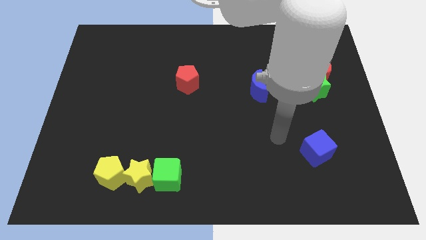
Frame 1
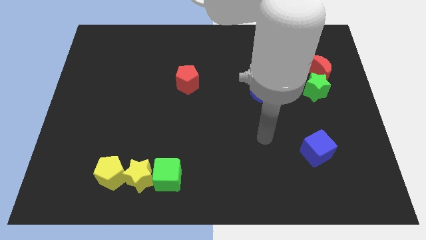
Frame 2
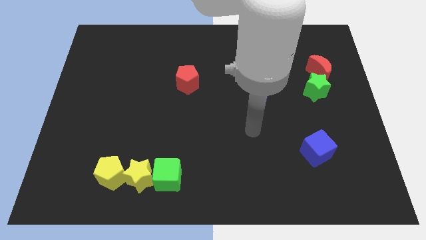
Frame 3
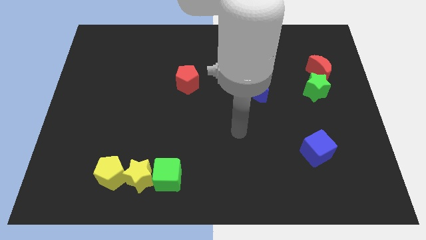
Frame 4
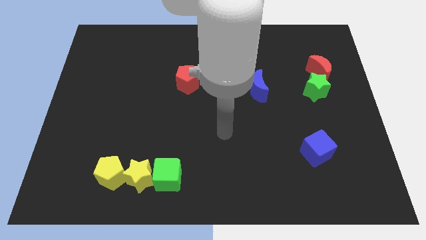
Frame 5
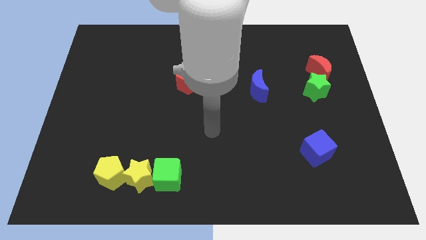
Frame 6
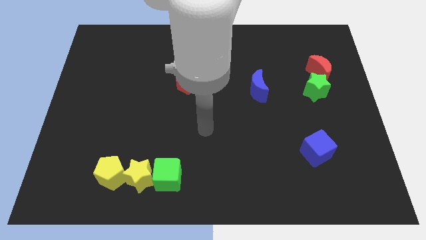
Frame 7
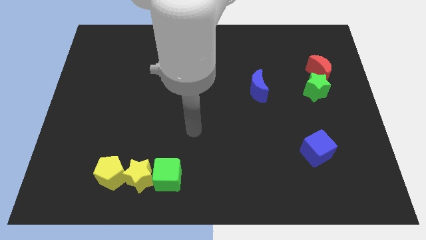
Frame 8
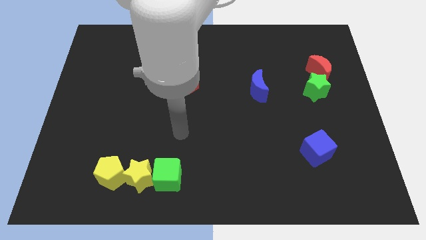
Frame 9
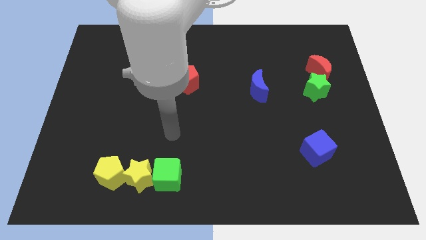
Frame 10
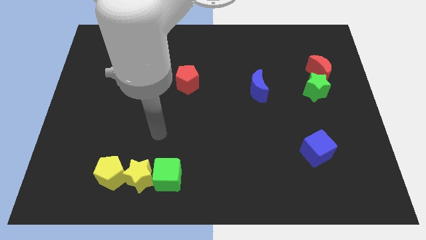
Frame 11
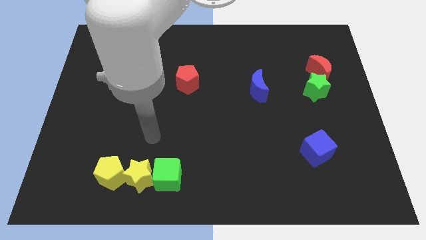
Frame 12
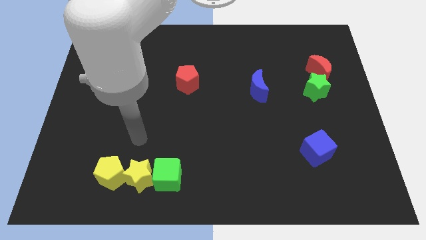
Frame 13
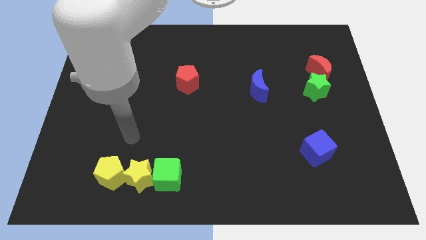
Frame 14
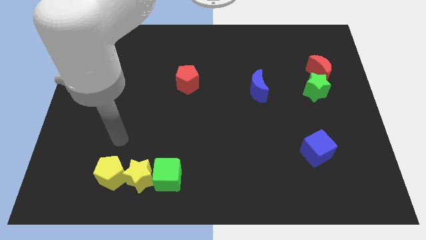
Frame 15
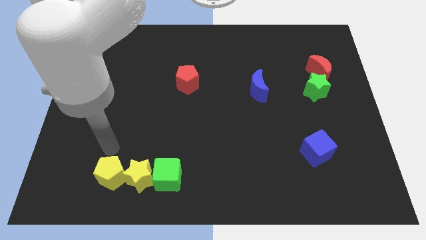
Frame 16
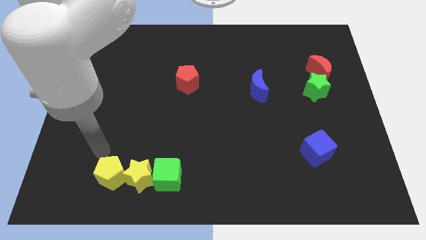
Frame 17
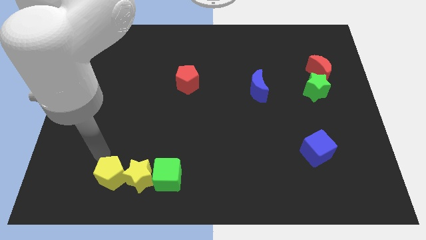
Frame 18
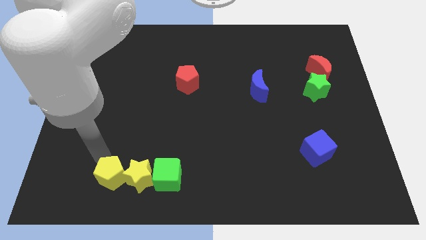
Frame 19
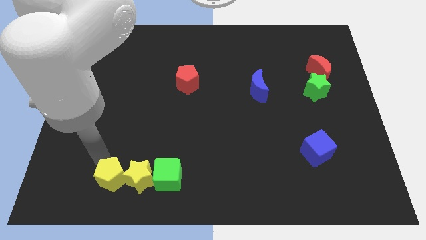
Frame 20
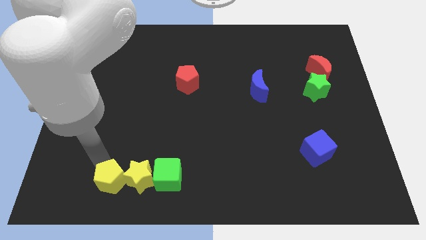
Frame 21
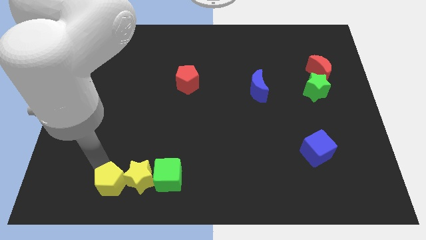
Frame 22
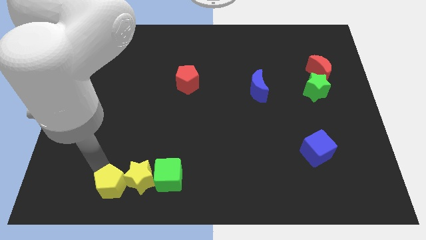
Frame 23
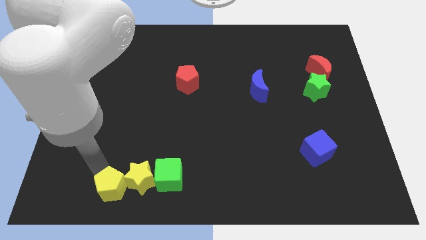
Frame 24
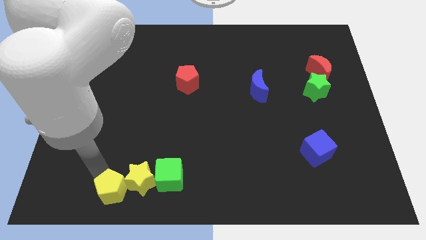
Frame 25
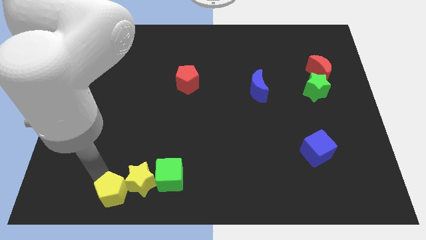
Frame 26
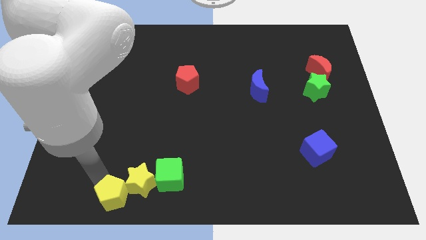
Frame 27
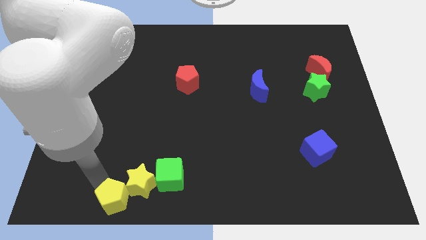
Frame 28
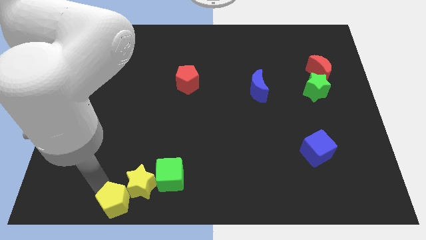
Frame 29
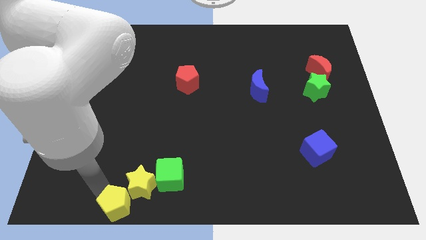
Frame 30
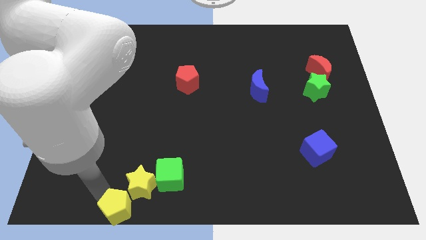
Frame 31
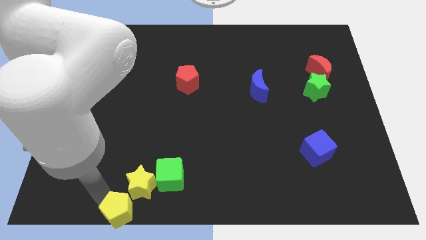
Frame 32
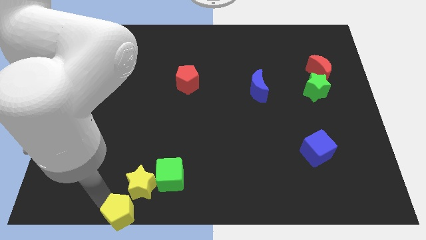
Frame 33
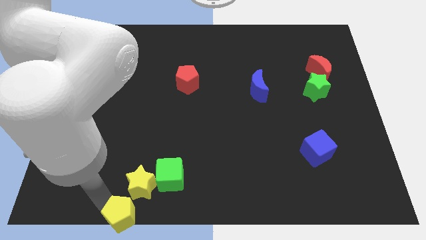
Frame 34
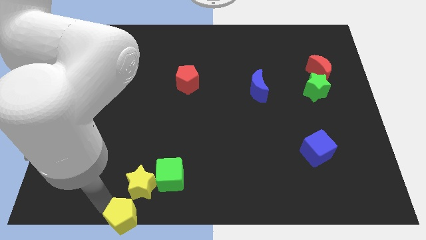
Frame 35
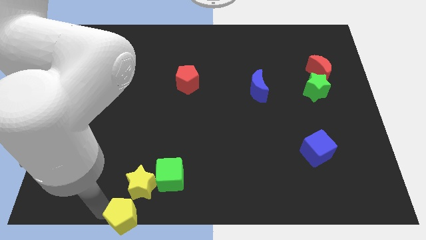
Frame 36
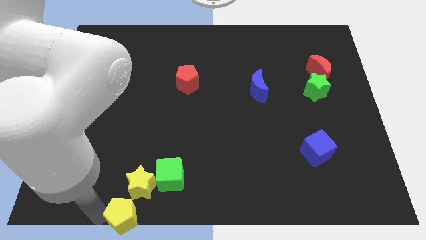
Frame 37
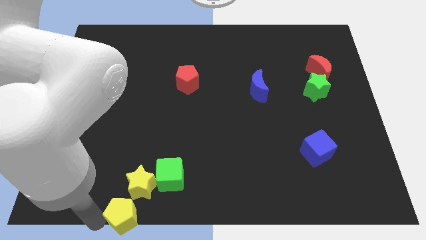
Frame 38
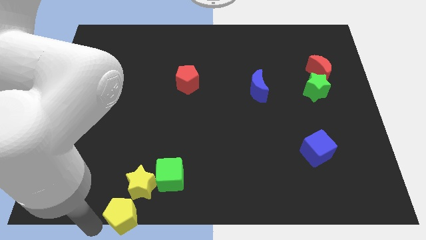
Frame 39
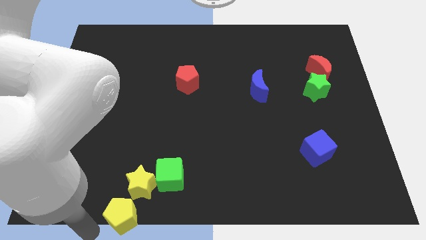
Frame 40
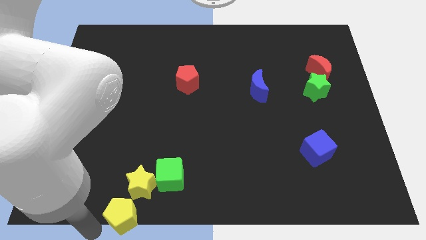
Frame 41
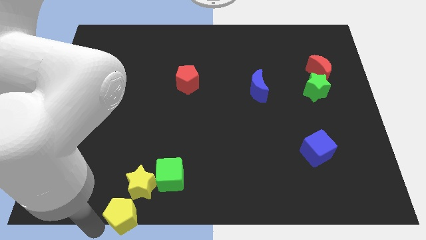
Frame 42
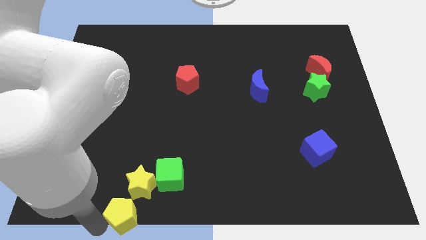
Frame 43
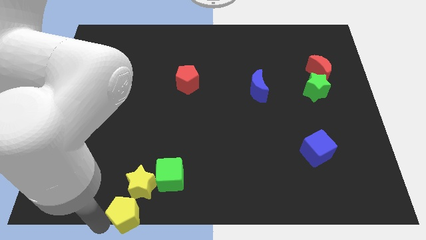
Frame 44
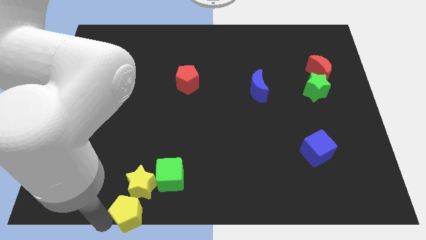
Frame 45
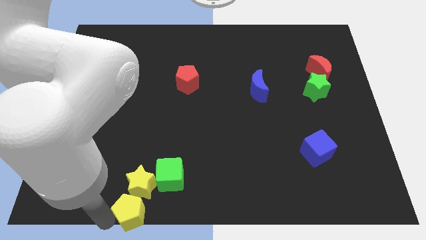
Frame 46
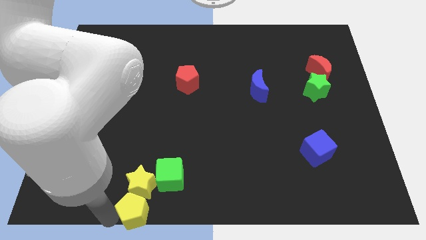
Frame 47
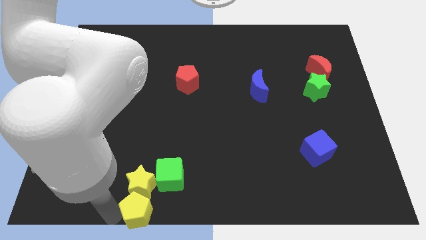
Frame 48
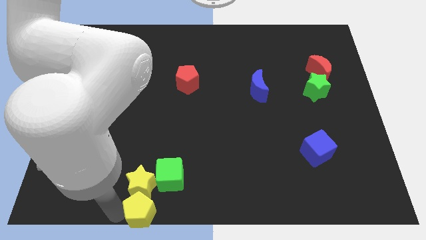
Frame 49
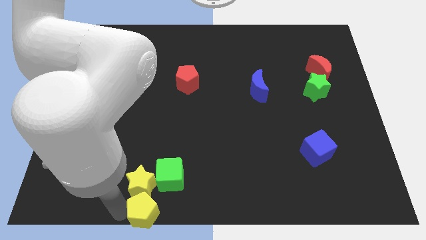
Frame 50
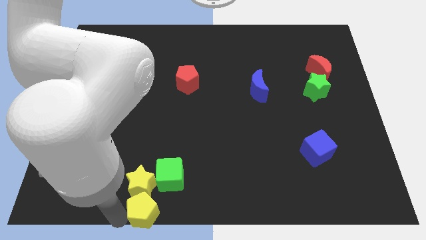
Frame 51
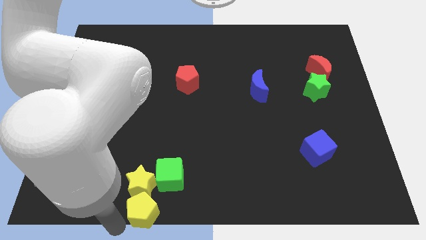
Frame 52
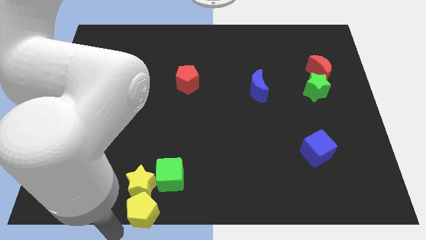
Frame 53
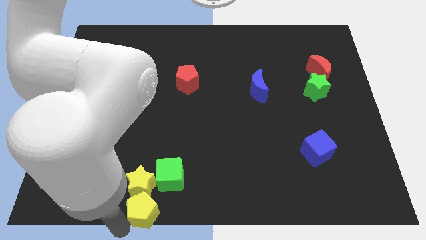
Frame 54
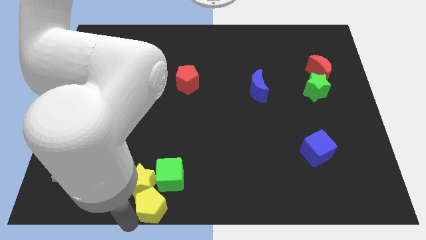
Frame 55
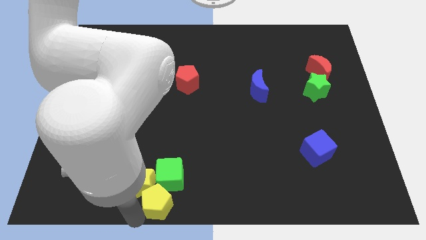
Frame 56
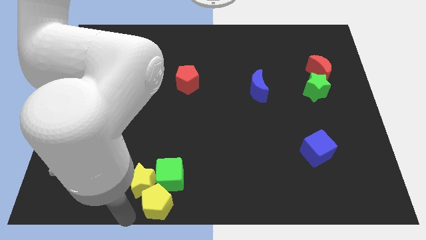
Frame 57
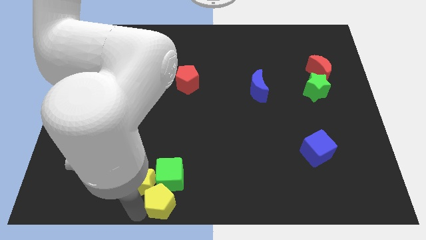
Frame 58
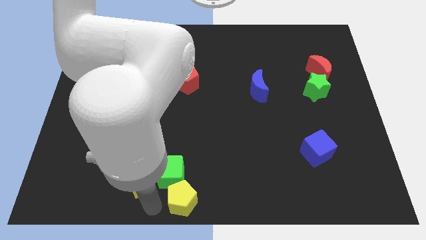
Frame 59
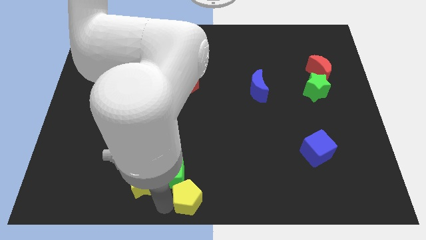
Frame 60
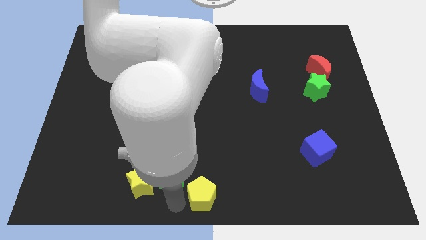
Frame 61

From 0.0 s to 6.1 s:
slide the yellow pentagon to the right side of the green cube

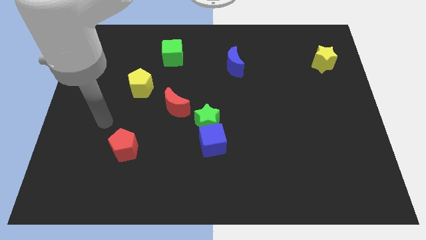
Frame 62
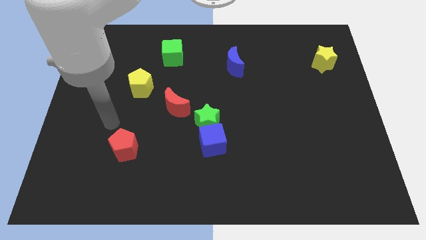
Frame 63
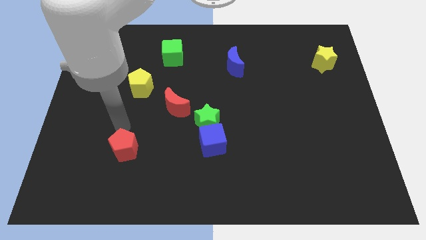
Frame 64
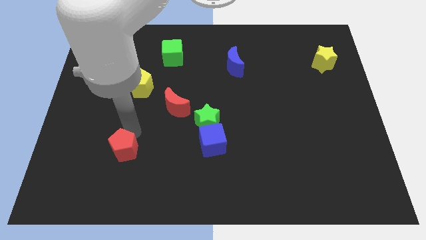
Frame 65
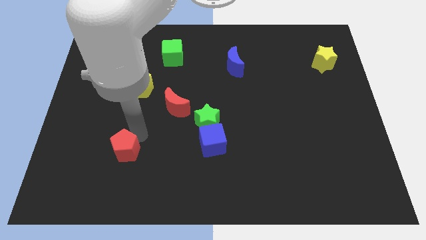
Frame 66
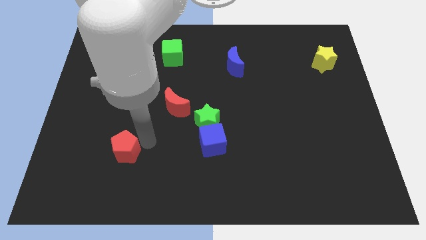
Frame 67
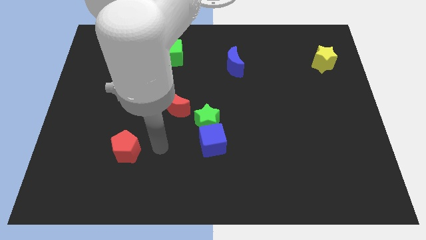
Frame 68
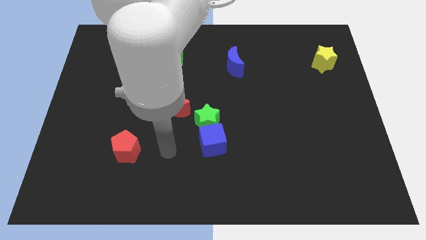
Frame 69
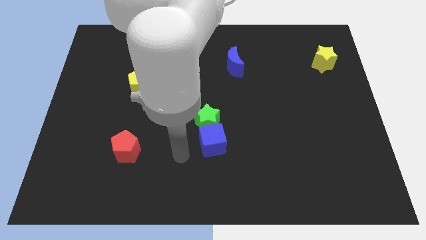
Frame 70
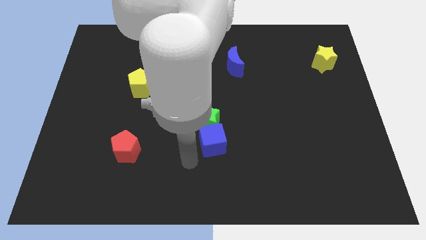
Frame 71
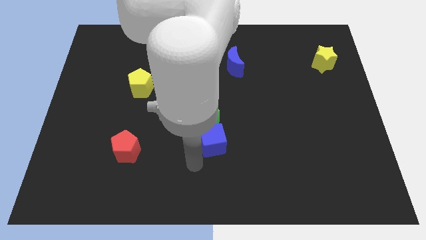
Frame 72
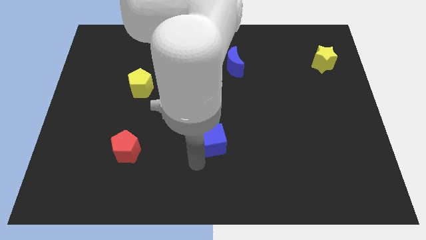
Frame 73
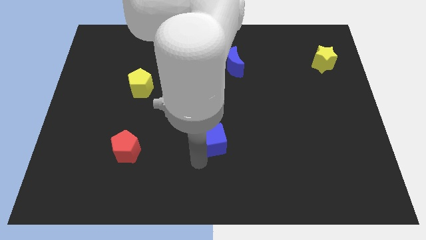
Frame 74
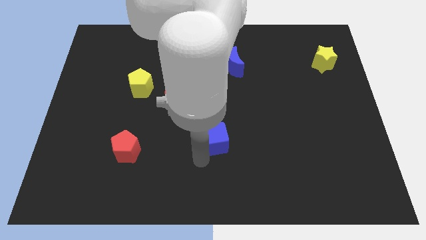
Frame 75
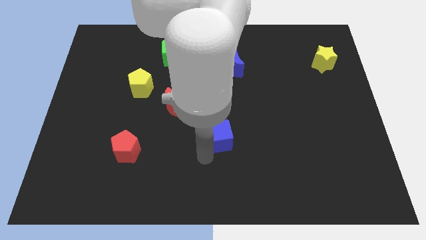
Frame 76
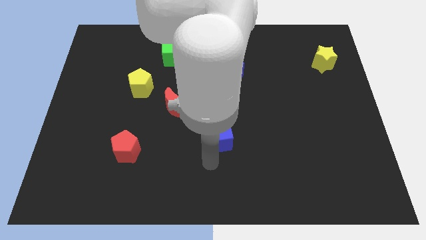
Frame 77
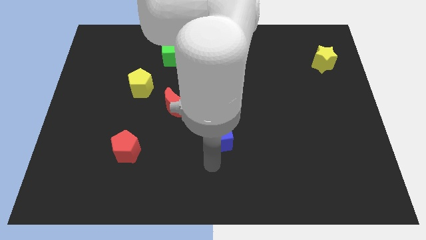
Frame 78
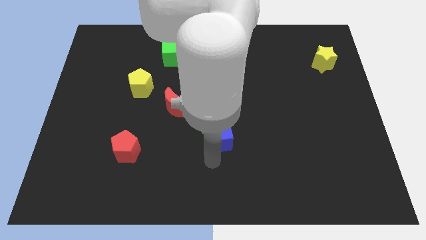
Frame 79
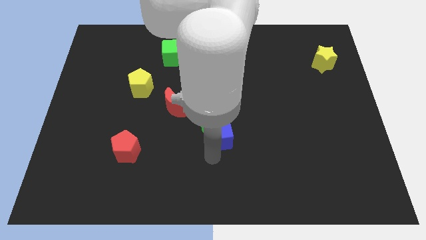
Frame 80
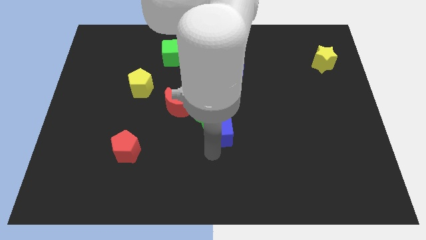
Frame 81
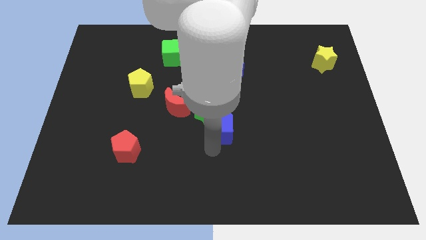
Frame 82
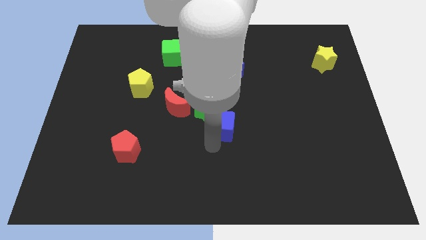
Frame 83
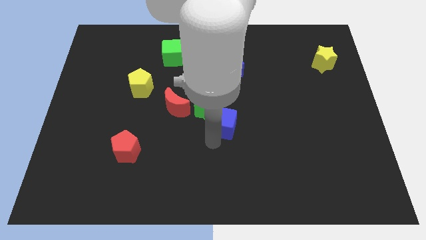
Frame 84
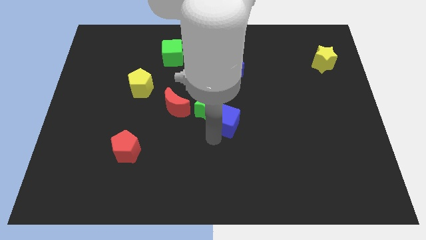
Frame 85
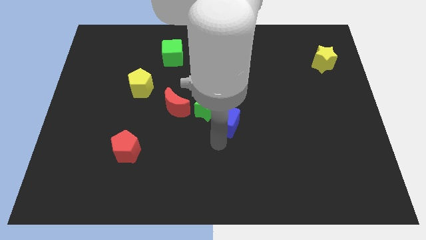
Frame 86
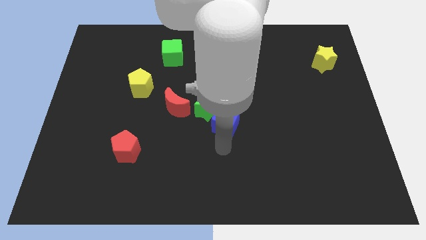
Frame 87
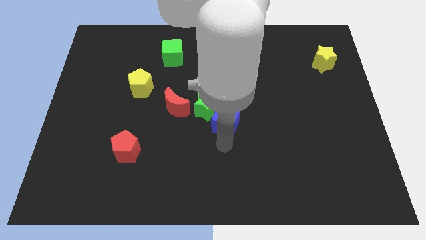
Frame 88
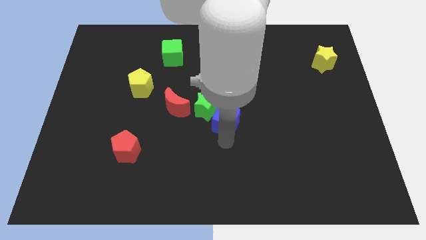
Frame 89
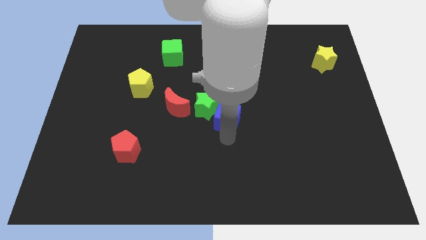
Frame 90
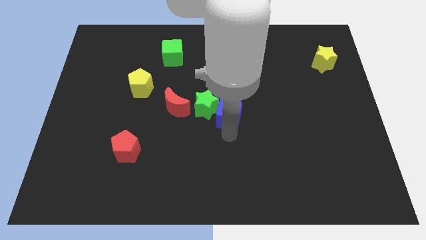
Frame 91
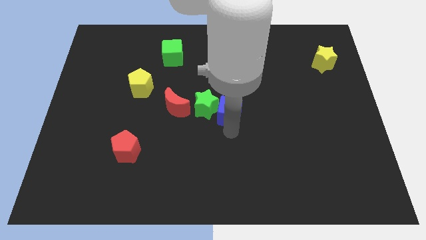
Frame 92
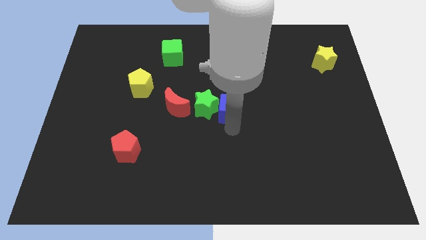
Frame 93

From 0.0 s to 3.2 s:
slide the blue cube to the top right of the green star
